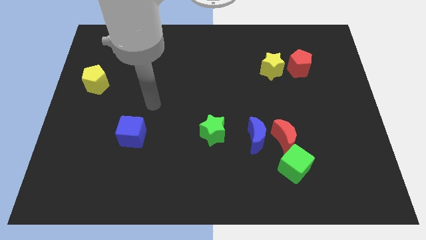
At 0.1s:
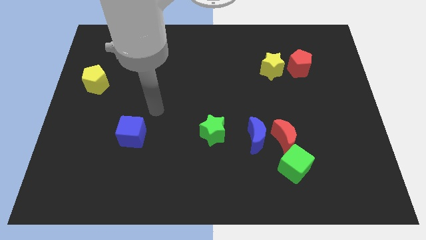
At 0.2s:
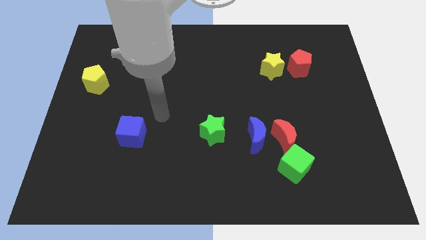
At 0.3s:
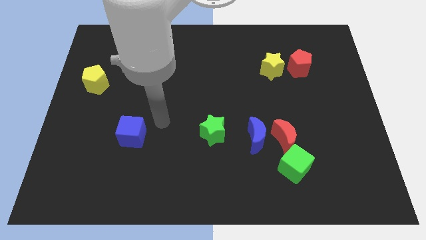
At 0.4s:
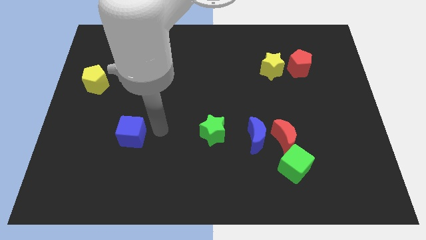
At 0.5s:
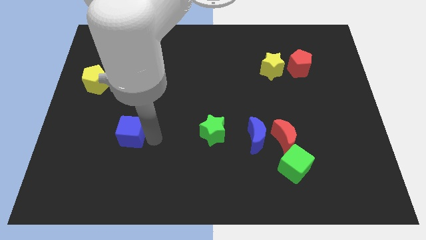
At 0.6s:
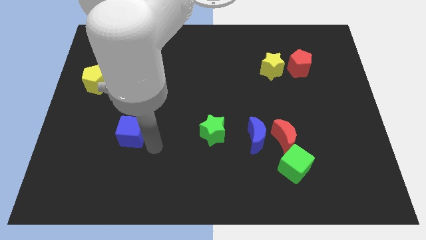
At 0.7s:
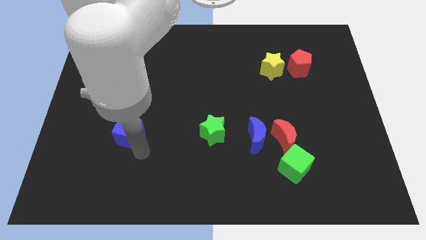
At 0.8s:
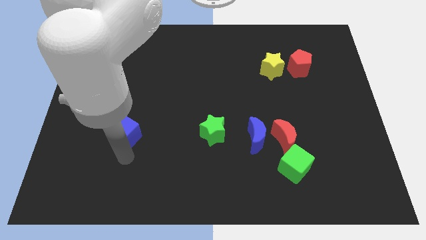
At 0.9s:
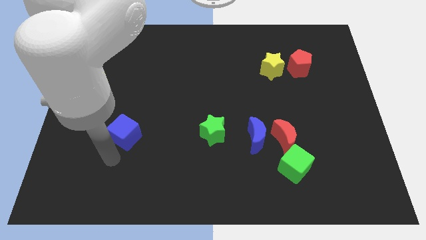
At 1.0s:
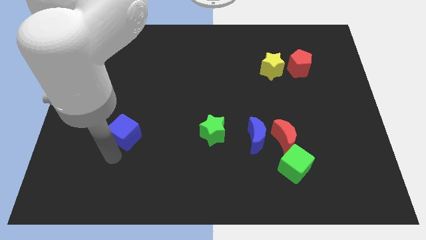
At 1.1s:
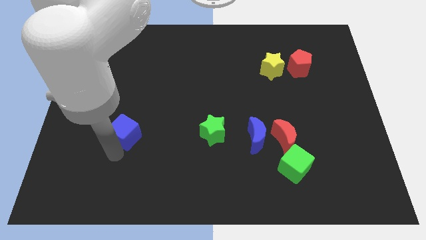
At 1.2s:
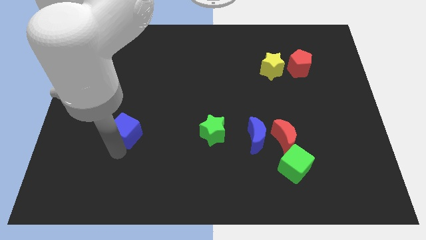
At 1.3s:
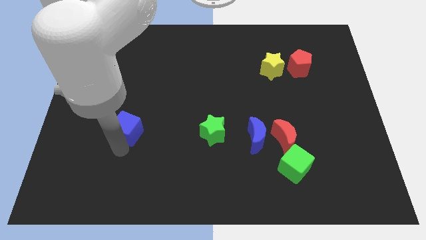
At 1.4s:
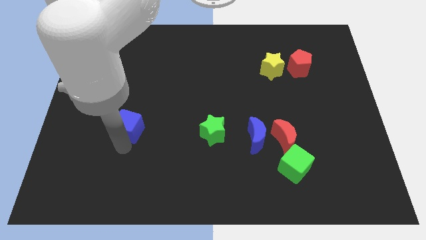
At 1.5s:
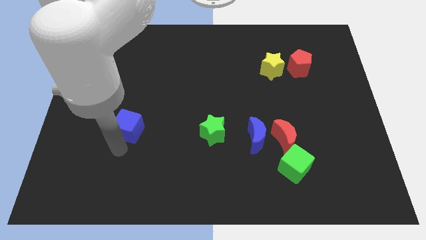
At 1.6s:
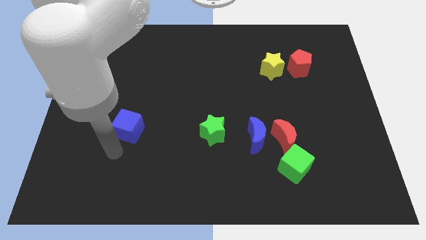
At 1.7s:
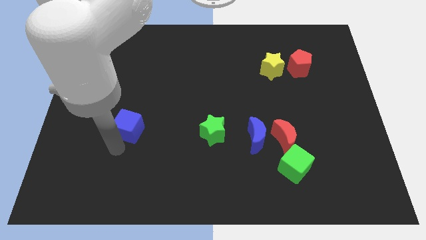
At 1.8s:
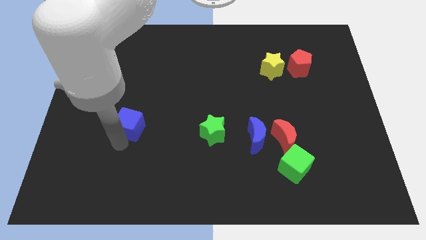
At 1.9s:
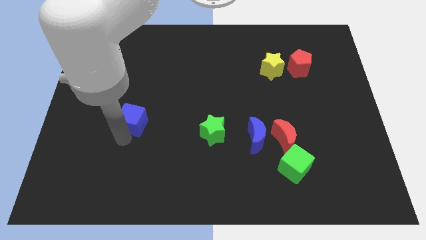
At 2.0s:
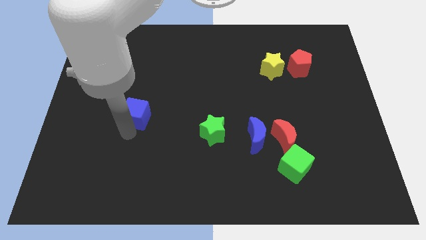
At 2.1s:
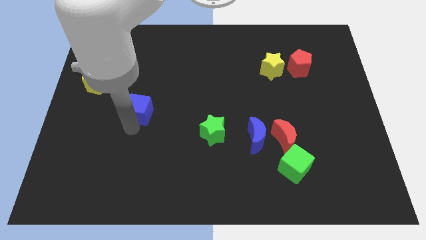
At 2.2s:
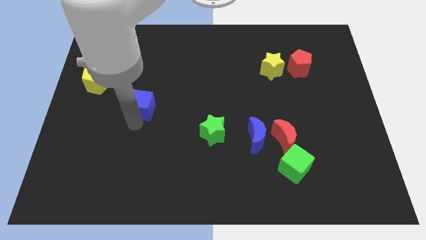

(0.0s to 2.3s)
slightly slide the blue cube upwards

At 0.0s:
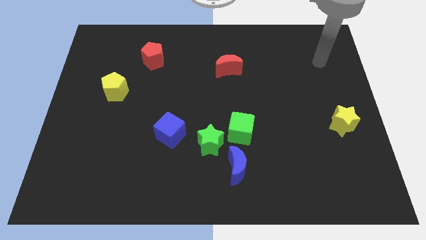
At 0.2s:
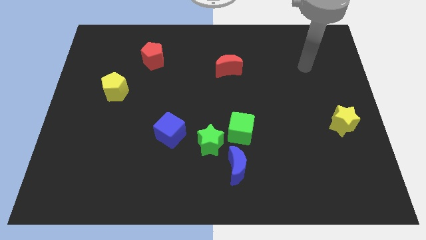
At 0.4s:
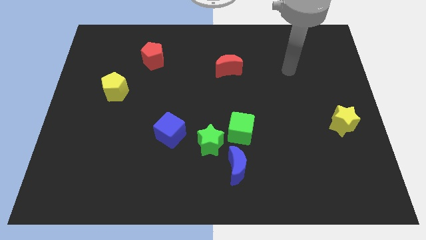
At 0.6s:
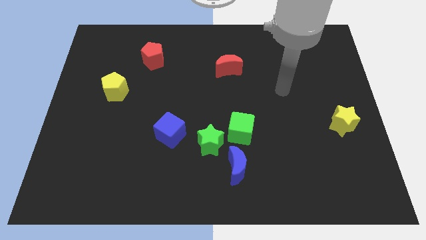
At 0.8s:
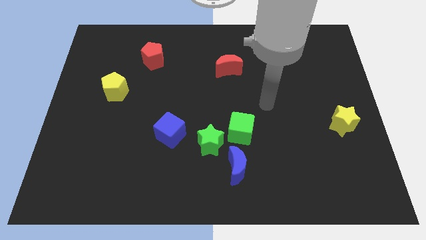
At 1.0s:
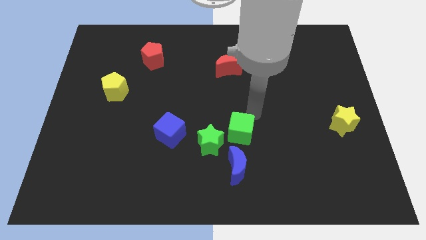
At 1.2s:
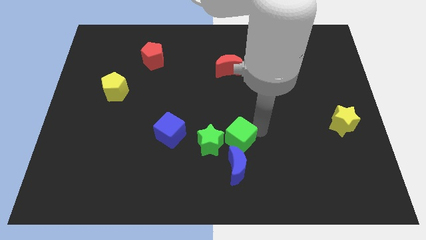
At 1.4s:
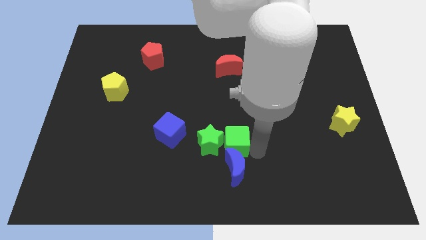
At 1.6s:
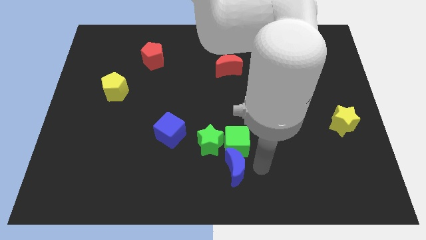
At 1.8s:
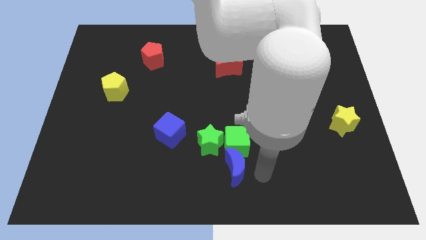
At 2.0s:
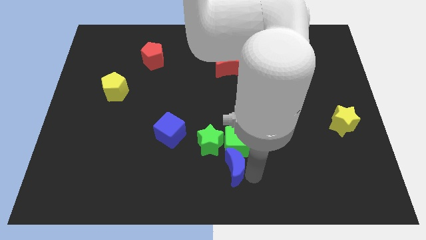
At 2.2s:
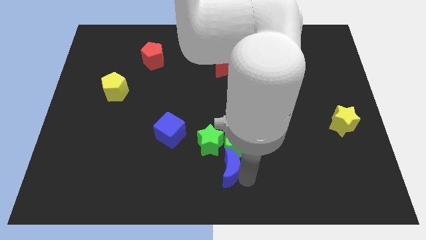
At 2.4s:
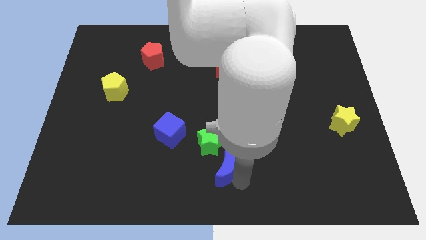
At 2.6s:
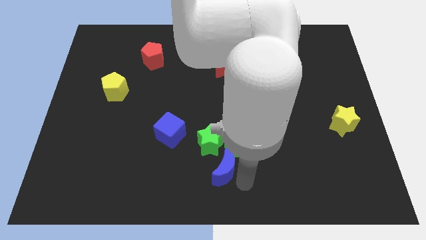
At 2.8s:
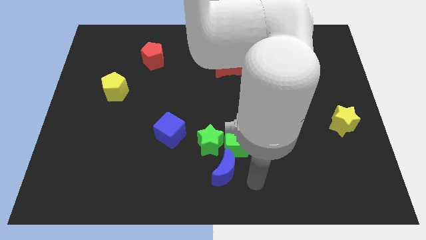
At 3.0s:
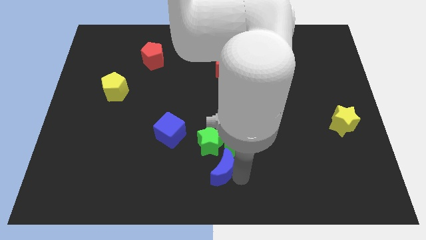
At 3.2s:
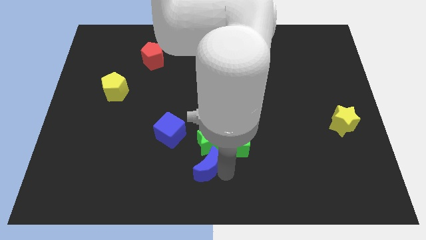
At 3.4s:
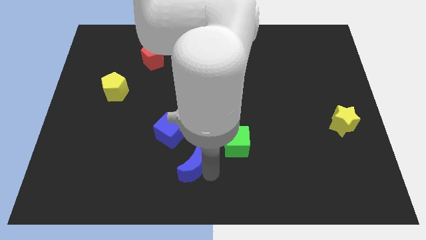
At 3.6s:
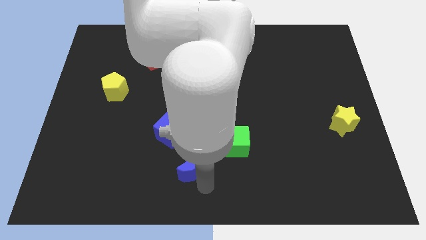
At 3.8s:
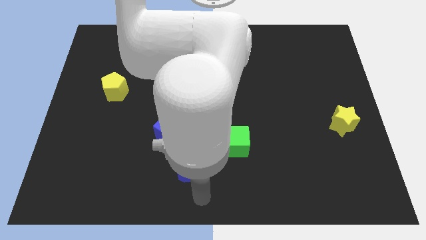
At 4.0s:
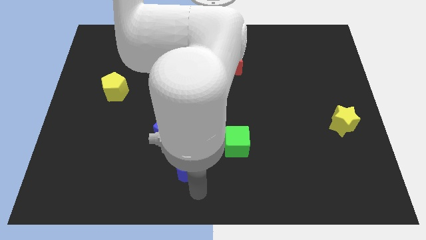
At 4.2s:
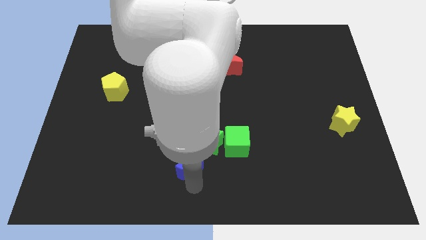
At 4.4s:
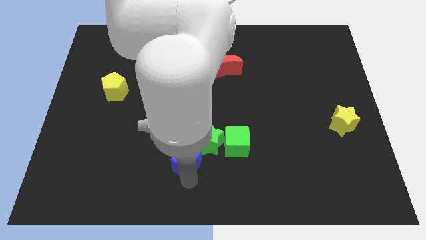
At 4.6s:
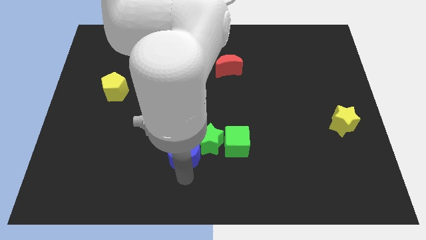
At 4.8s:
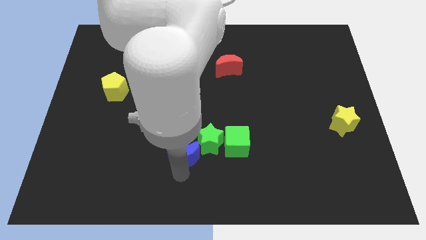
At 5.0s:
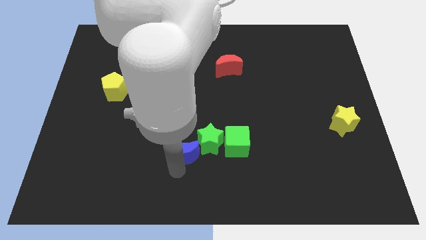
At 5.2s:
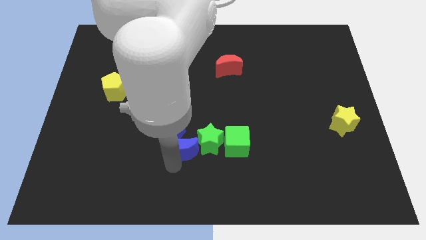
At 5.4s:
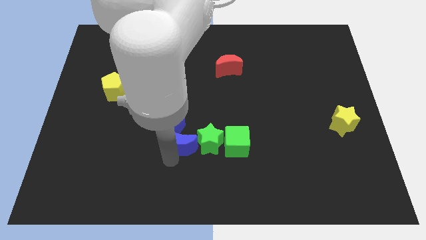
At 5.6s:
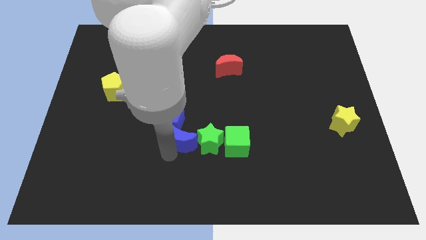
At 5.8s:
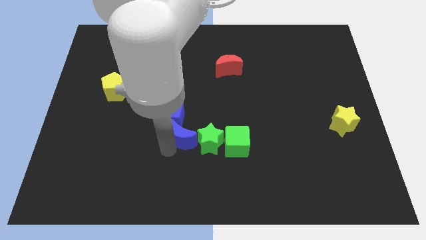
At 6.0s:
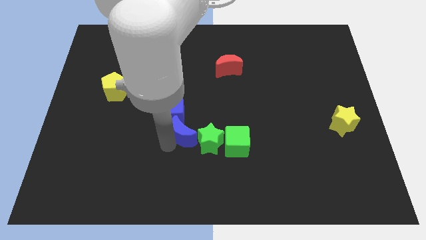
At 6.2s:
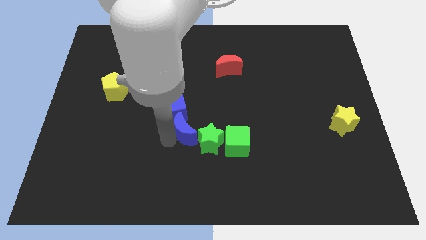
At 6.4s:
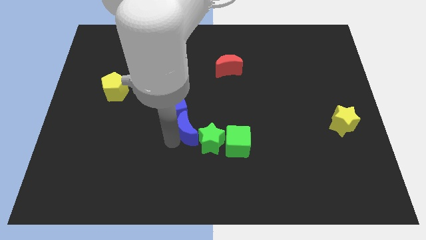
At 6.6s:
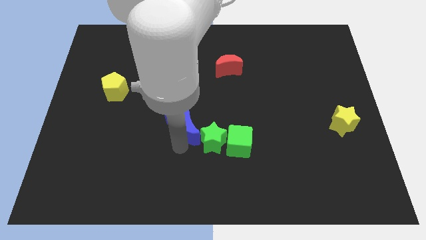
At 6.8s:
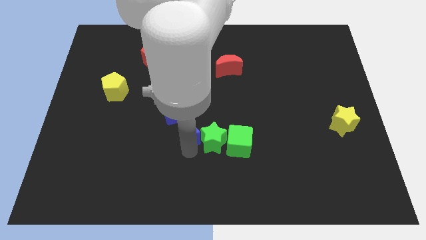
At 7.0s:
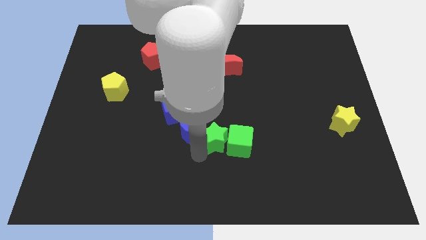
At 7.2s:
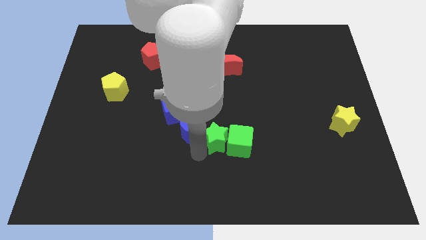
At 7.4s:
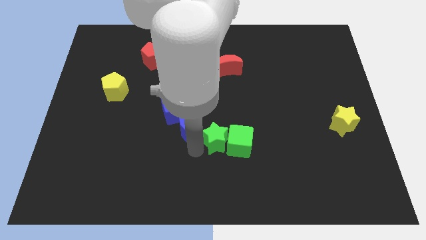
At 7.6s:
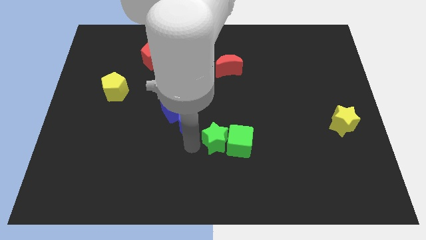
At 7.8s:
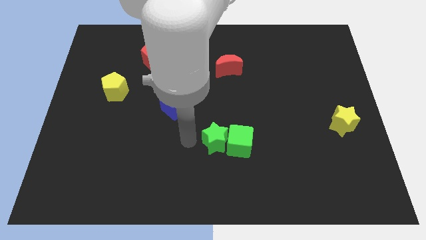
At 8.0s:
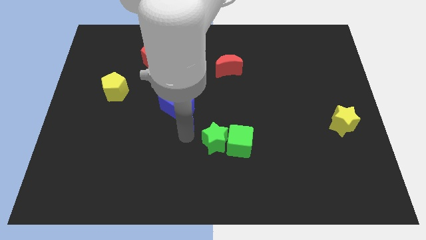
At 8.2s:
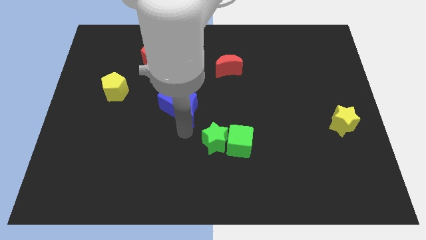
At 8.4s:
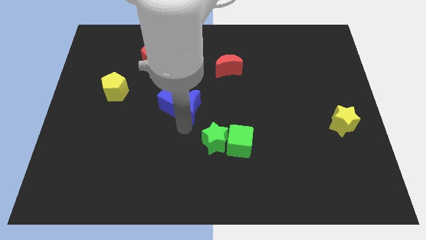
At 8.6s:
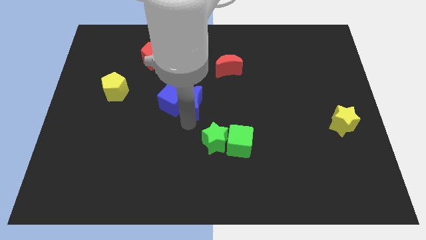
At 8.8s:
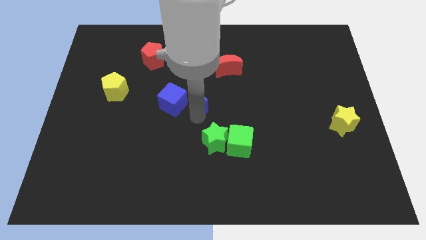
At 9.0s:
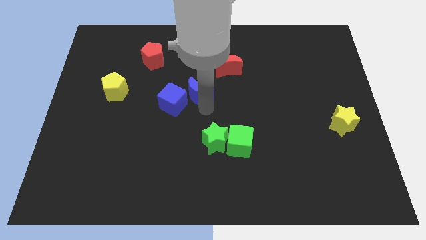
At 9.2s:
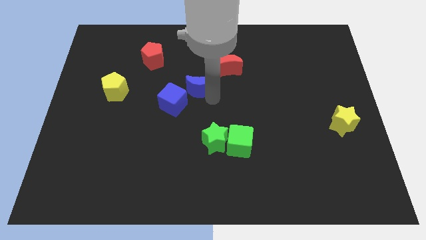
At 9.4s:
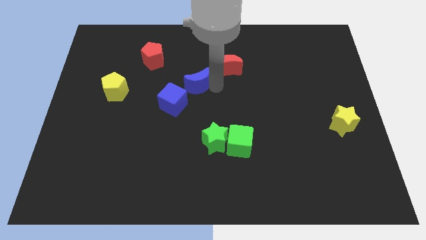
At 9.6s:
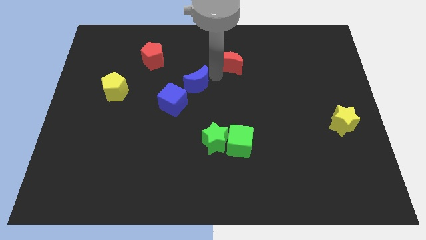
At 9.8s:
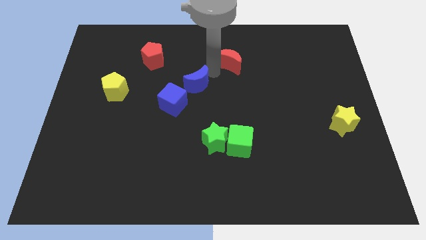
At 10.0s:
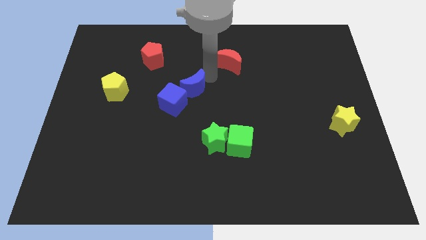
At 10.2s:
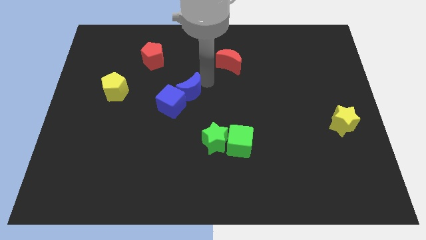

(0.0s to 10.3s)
push the blue moon upwards and left diagonally
